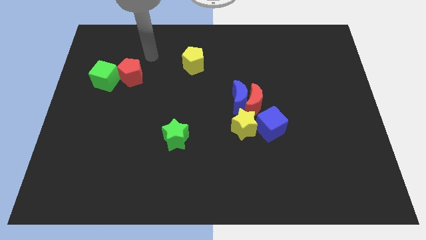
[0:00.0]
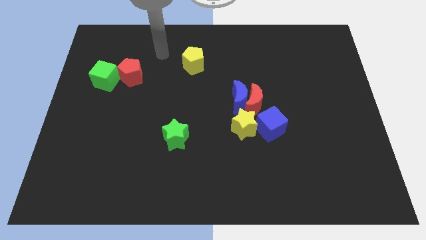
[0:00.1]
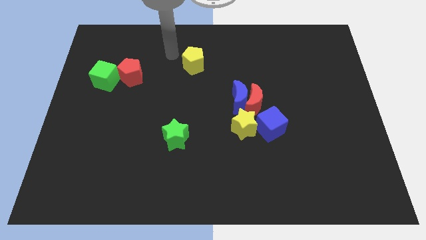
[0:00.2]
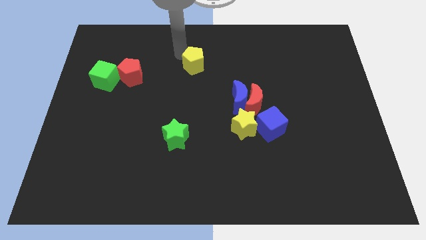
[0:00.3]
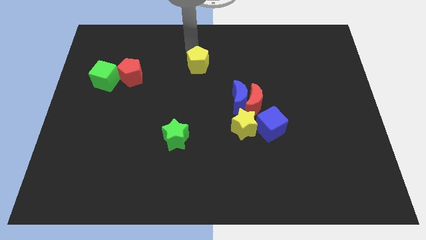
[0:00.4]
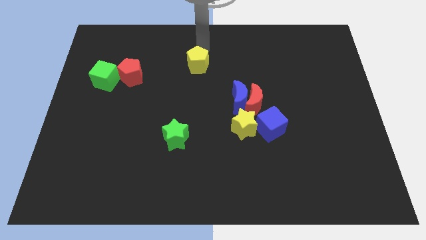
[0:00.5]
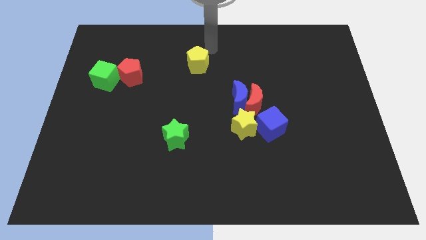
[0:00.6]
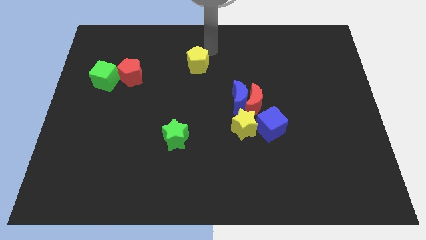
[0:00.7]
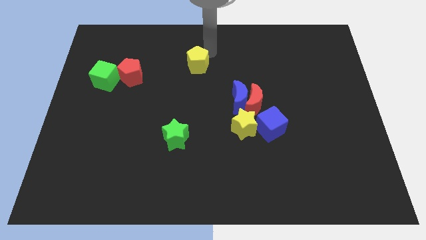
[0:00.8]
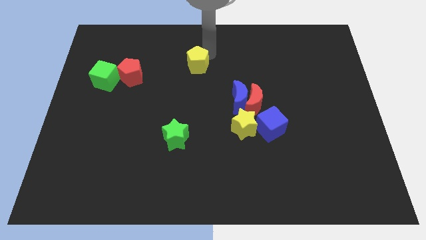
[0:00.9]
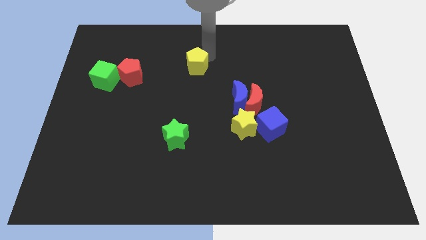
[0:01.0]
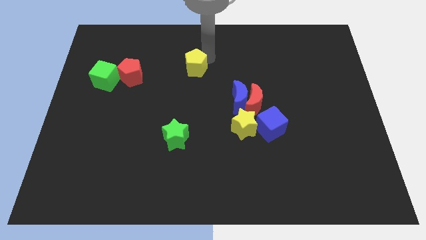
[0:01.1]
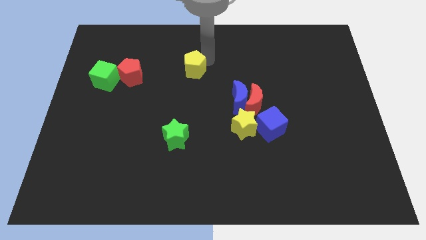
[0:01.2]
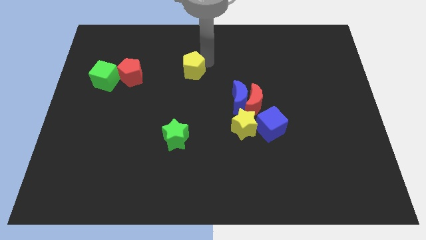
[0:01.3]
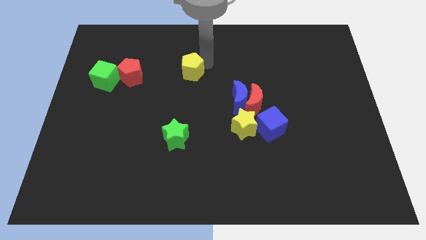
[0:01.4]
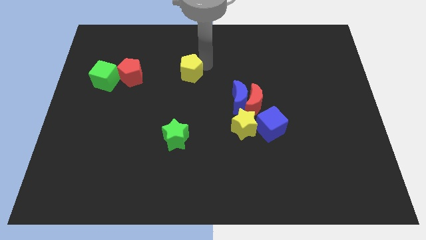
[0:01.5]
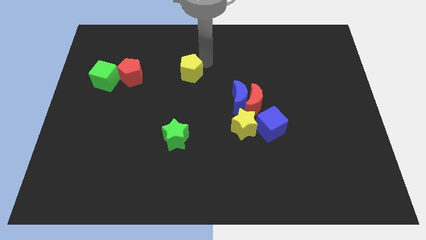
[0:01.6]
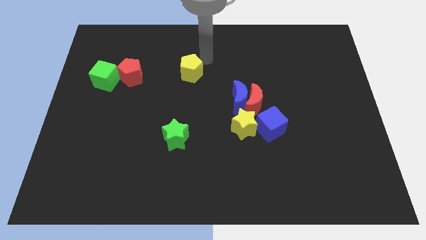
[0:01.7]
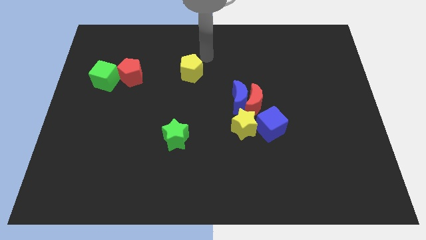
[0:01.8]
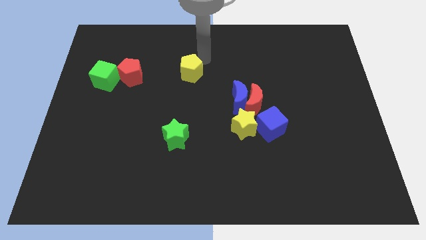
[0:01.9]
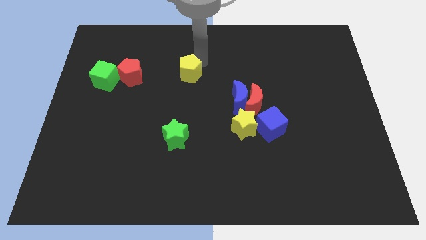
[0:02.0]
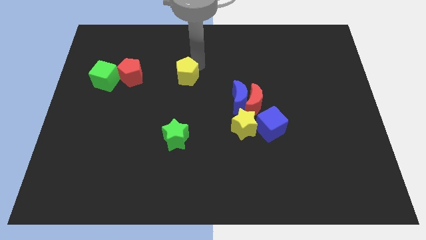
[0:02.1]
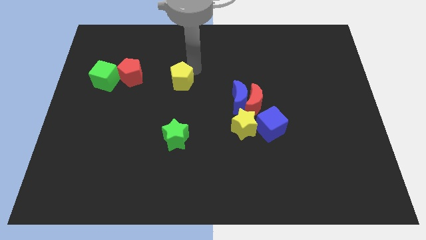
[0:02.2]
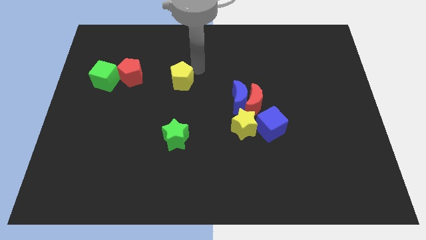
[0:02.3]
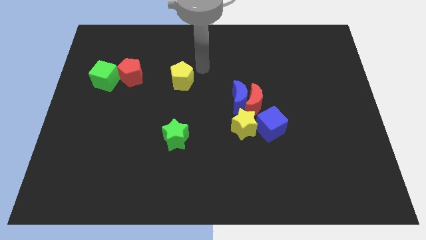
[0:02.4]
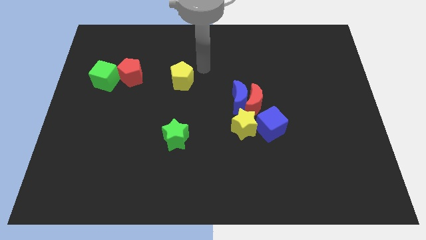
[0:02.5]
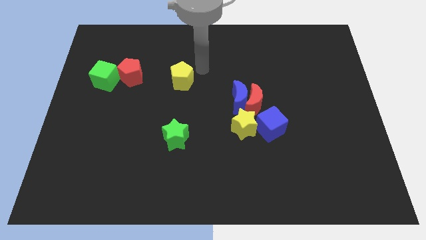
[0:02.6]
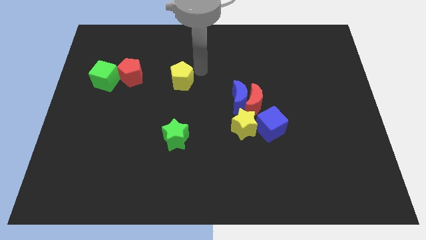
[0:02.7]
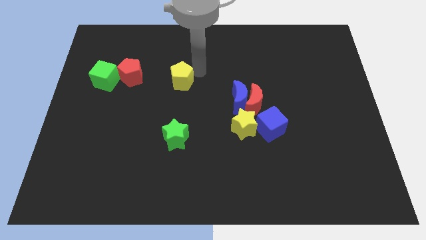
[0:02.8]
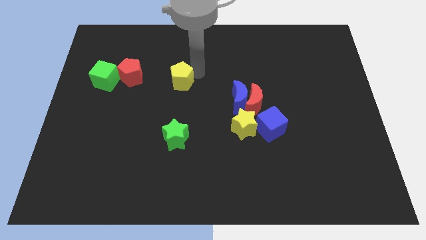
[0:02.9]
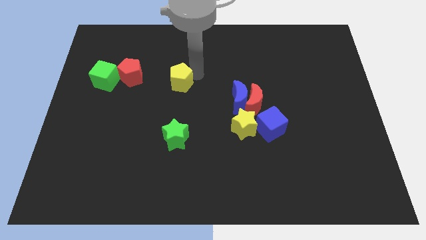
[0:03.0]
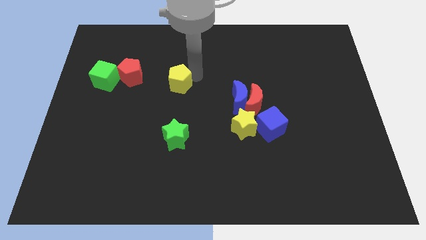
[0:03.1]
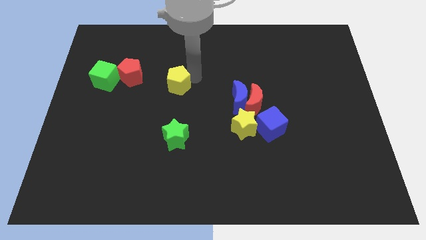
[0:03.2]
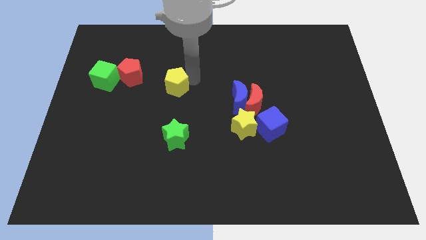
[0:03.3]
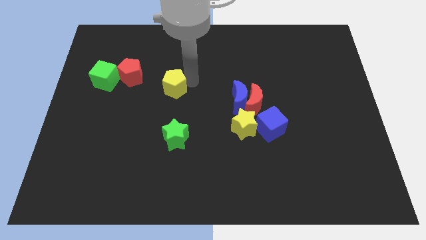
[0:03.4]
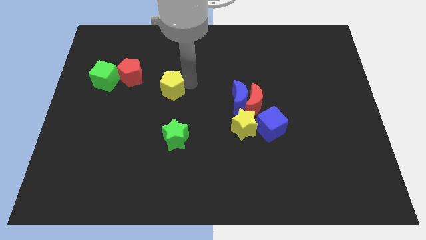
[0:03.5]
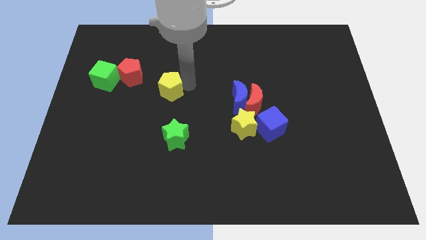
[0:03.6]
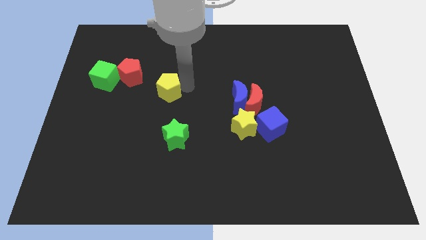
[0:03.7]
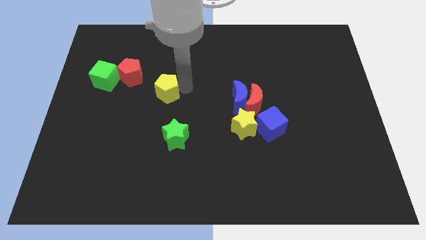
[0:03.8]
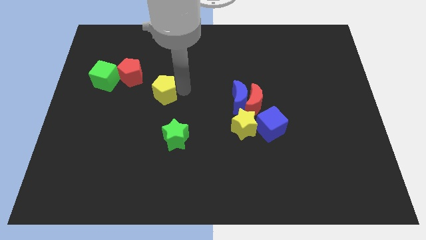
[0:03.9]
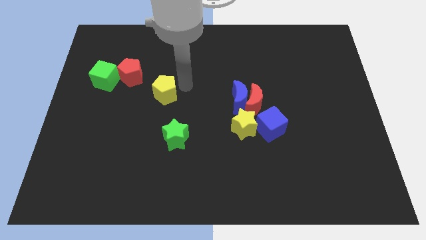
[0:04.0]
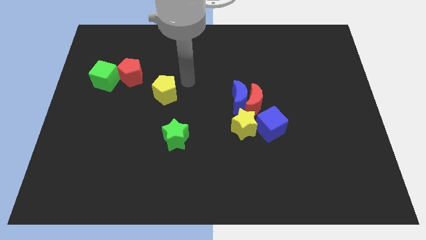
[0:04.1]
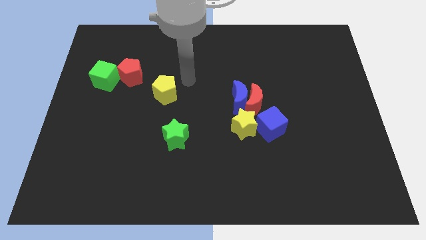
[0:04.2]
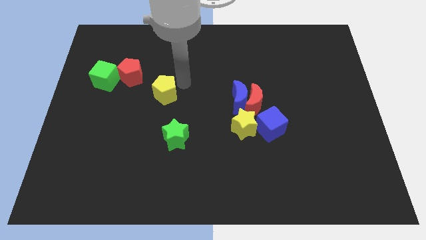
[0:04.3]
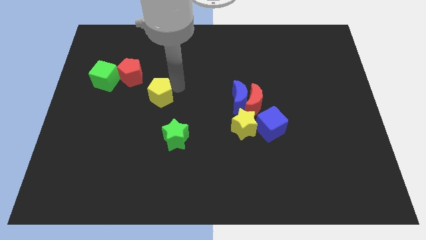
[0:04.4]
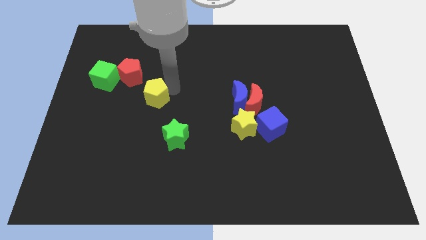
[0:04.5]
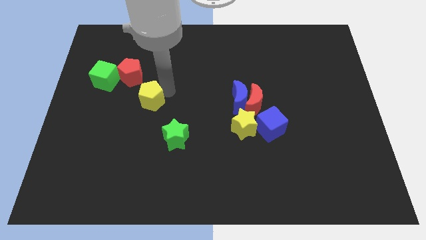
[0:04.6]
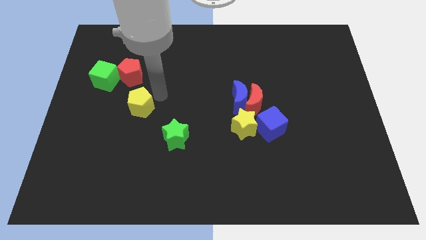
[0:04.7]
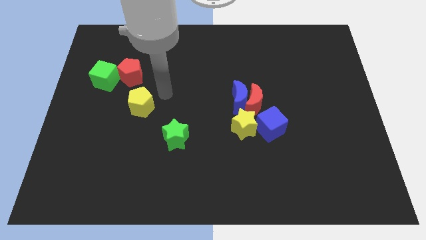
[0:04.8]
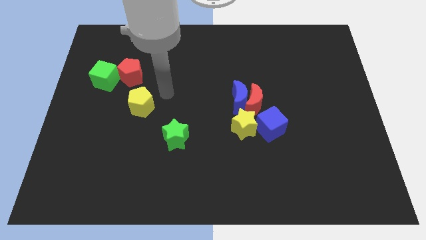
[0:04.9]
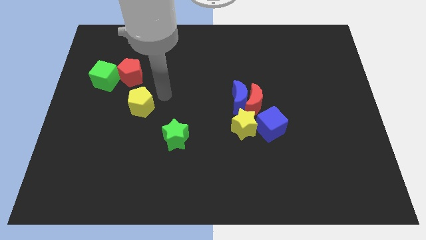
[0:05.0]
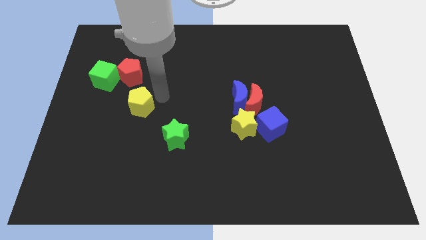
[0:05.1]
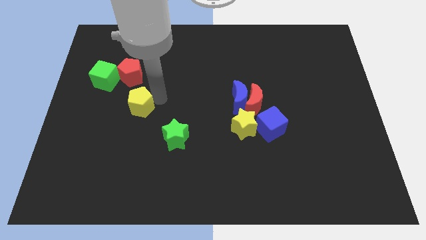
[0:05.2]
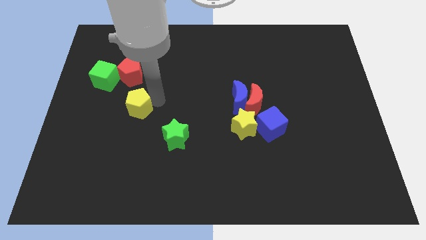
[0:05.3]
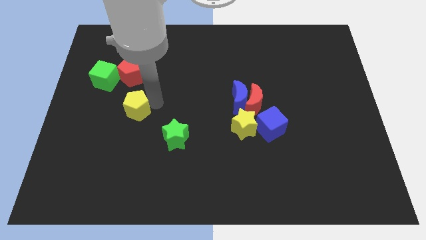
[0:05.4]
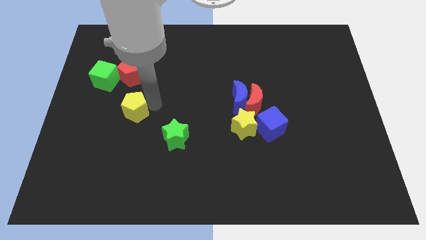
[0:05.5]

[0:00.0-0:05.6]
slide the yellow pentagon downwards and to the left diagonally

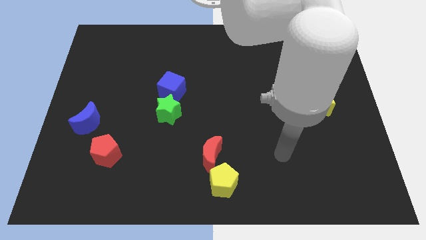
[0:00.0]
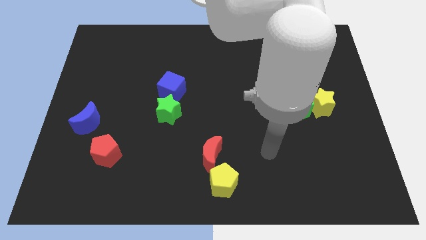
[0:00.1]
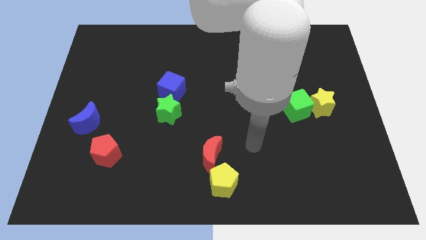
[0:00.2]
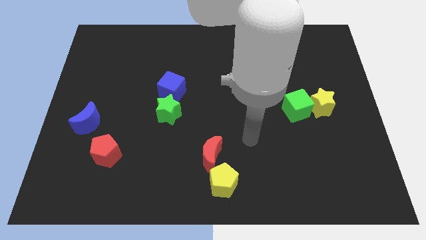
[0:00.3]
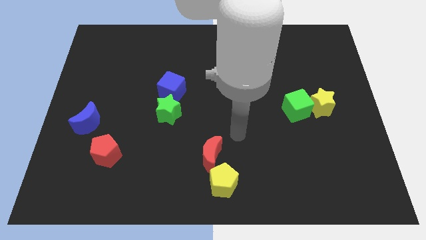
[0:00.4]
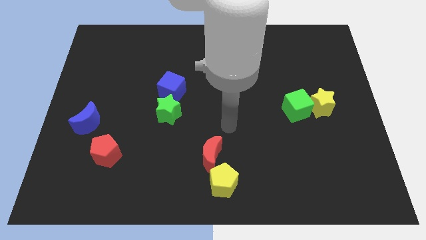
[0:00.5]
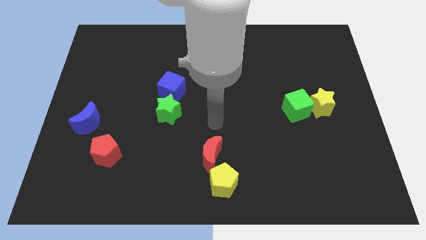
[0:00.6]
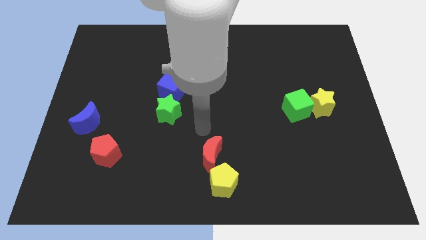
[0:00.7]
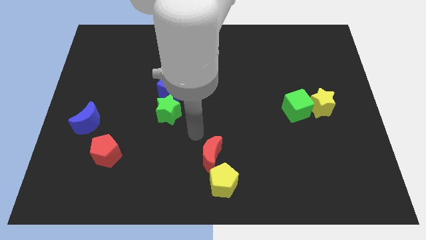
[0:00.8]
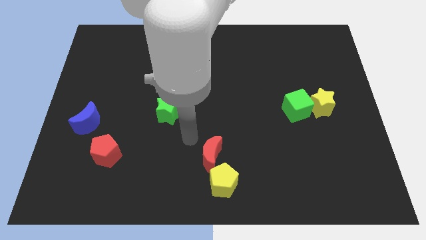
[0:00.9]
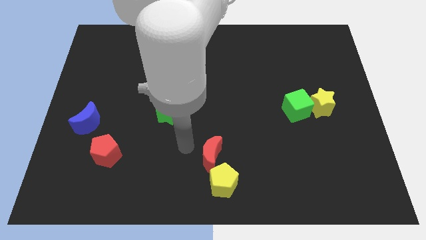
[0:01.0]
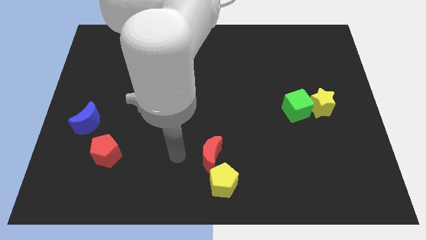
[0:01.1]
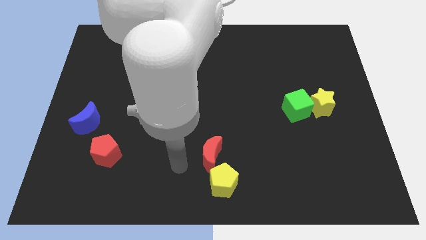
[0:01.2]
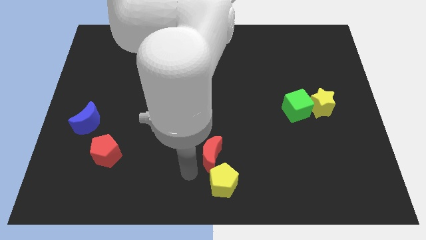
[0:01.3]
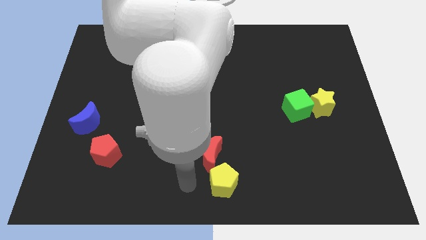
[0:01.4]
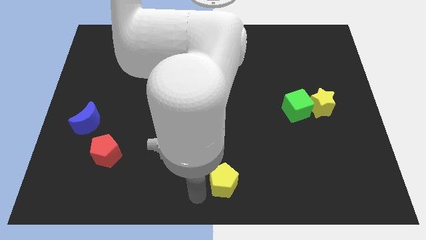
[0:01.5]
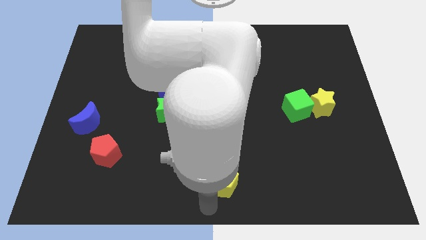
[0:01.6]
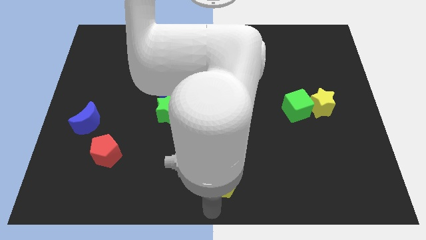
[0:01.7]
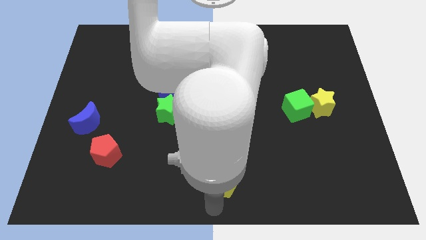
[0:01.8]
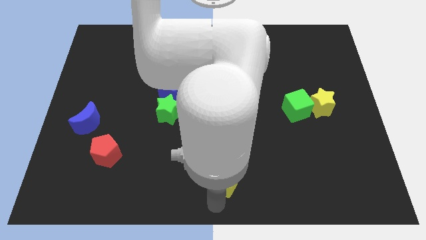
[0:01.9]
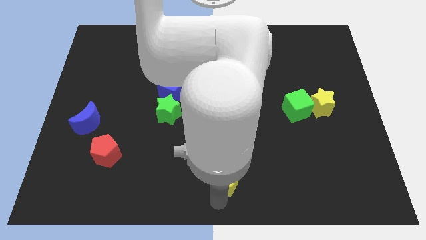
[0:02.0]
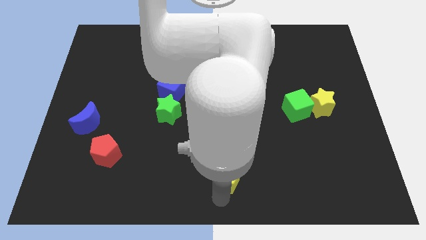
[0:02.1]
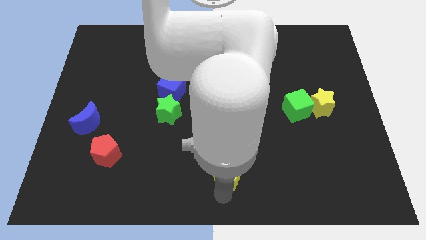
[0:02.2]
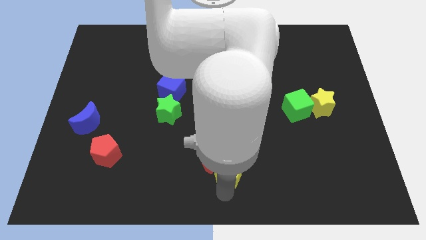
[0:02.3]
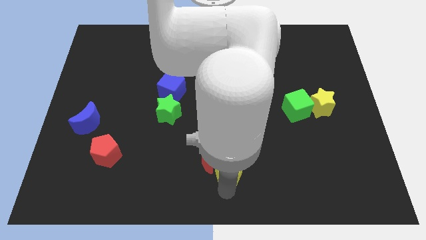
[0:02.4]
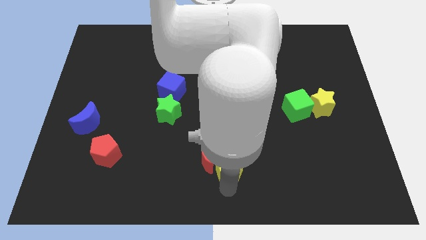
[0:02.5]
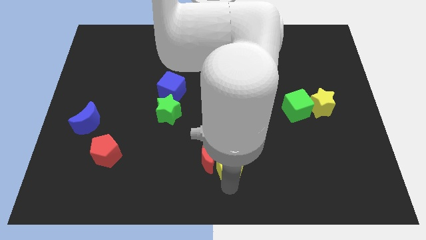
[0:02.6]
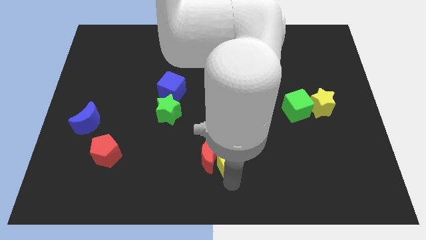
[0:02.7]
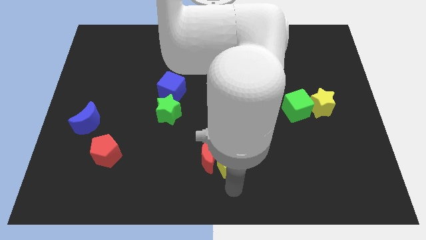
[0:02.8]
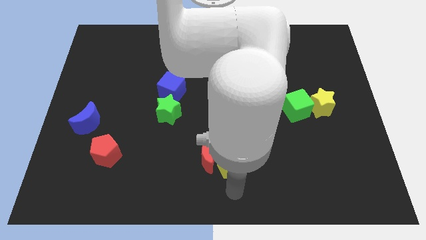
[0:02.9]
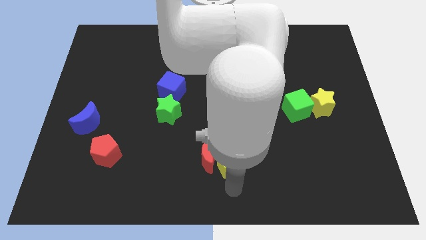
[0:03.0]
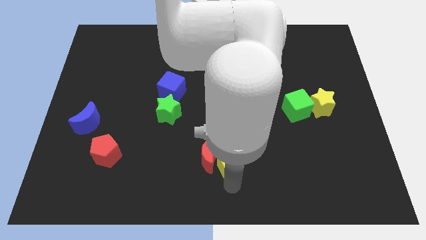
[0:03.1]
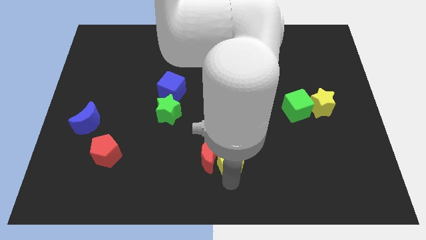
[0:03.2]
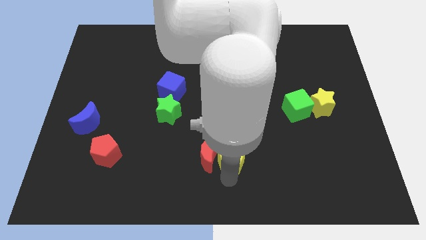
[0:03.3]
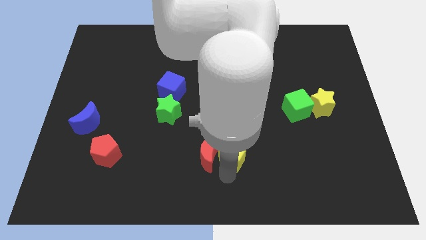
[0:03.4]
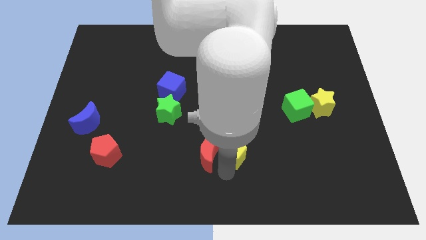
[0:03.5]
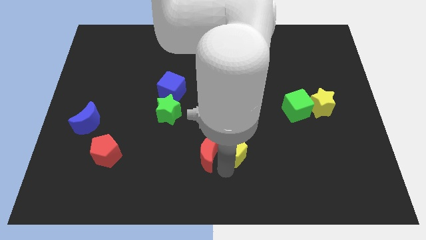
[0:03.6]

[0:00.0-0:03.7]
slightly slide the yellow pentagon up
